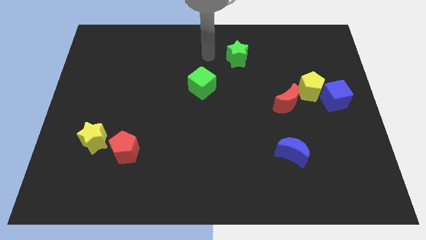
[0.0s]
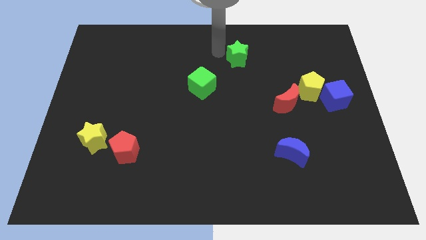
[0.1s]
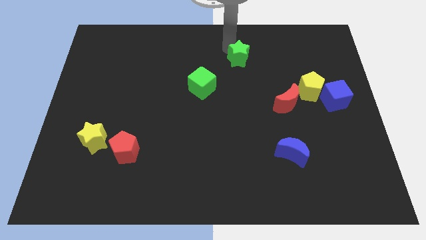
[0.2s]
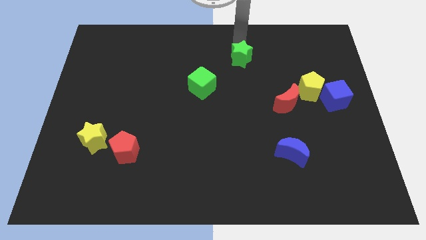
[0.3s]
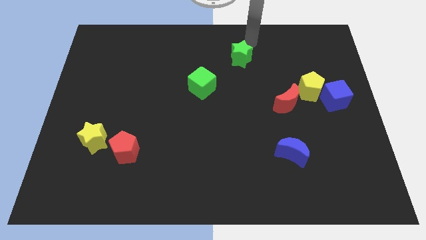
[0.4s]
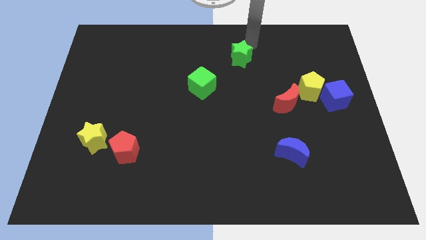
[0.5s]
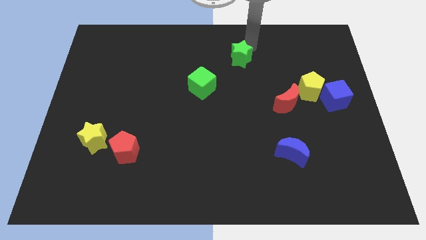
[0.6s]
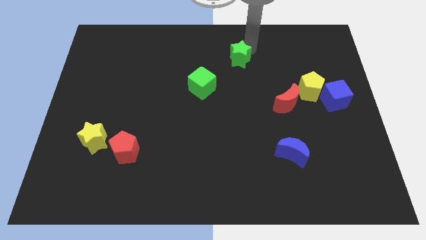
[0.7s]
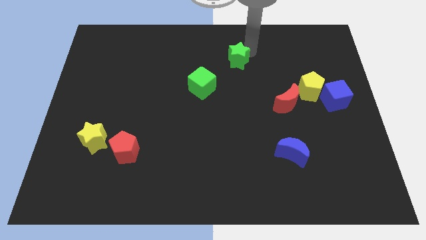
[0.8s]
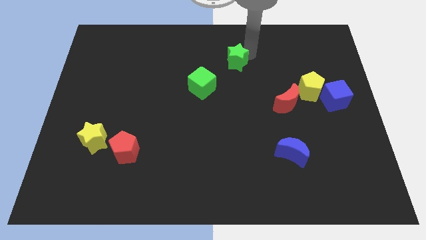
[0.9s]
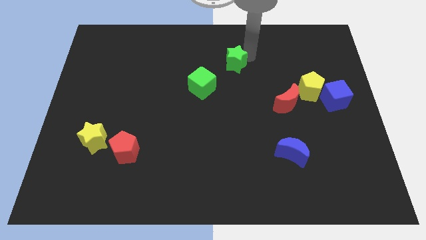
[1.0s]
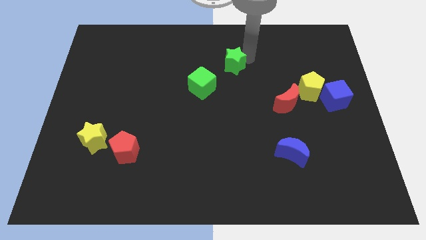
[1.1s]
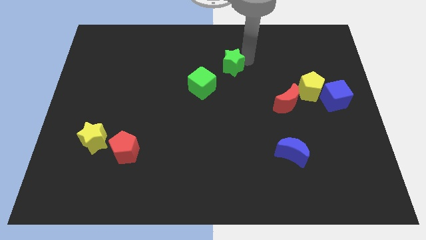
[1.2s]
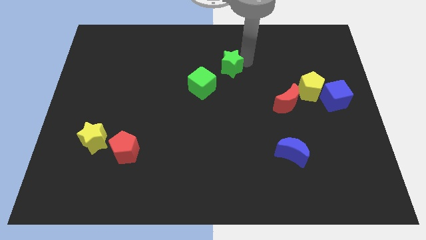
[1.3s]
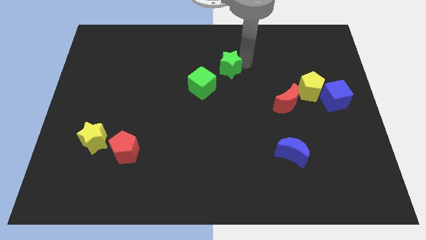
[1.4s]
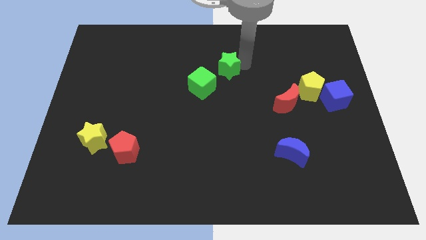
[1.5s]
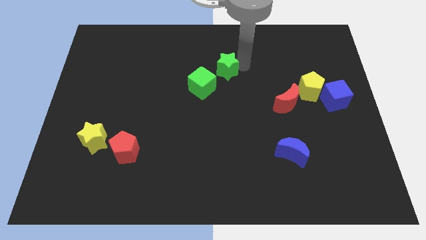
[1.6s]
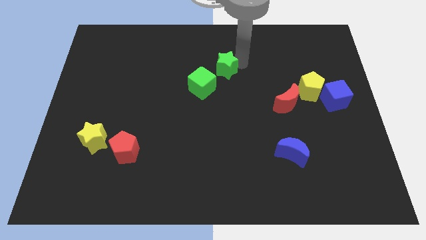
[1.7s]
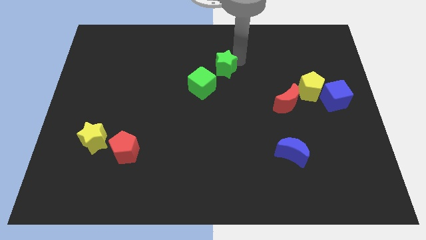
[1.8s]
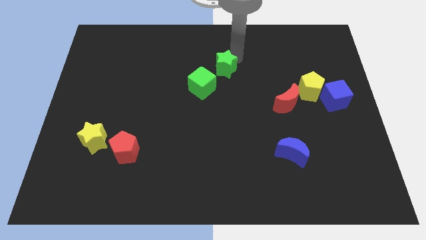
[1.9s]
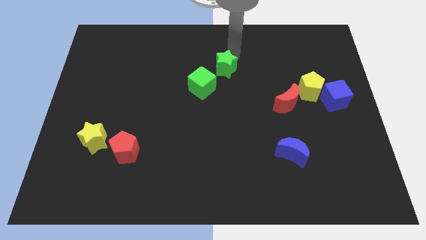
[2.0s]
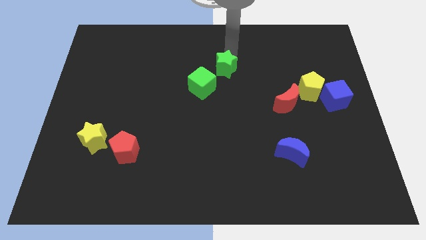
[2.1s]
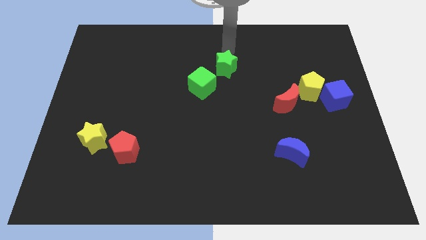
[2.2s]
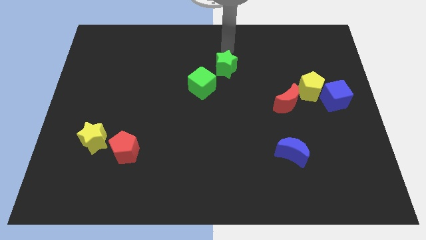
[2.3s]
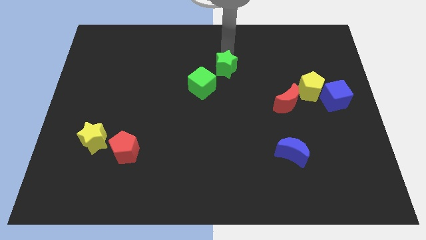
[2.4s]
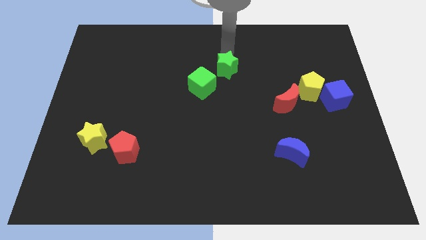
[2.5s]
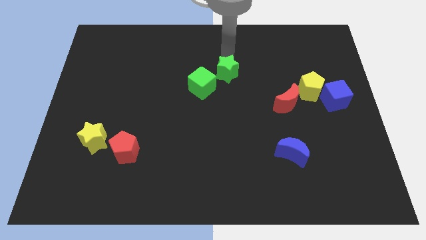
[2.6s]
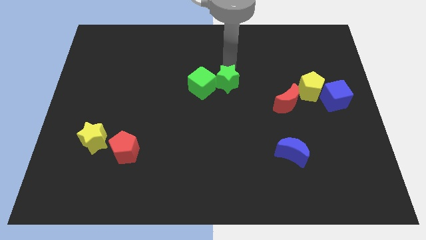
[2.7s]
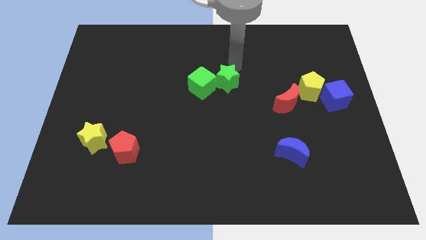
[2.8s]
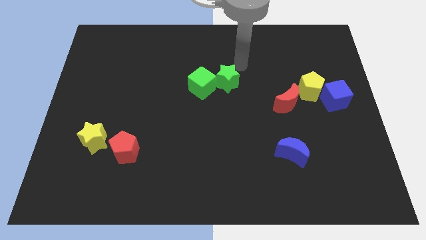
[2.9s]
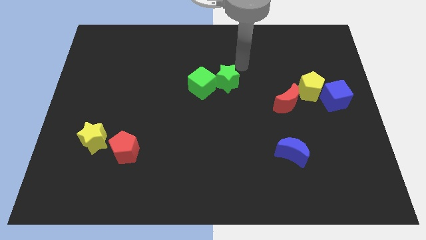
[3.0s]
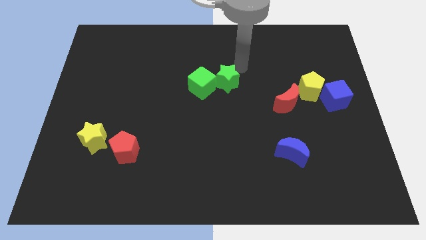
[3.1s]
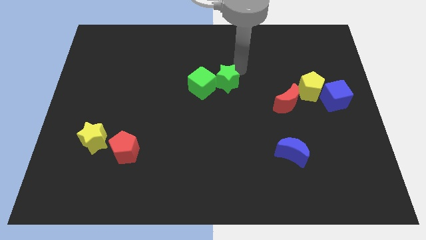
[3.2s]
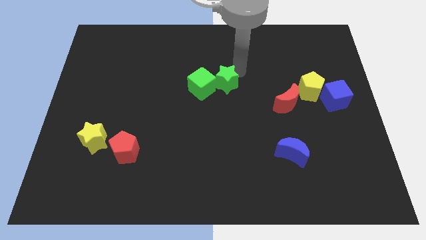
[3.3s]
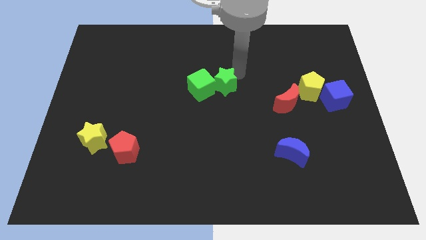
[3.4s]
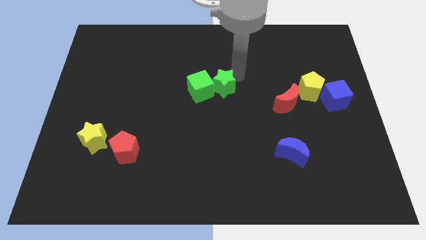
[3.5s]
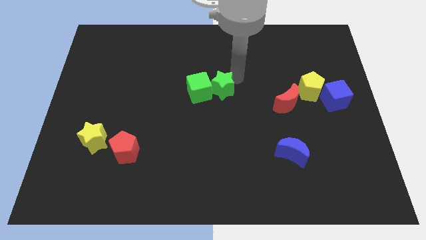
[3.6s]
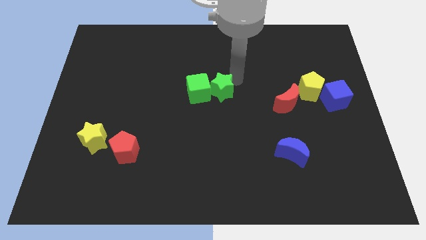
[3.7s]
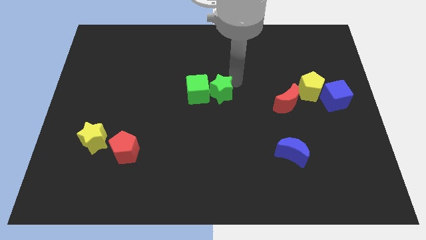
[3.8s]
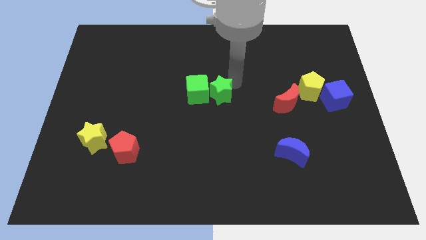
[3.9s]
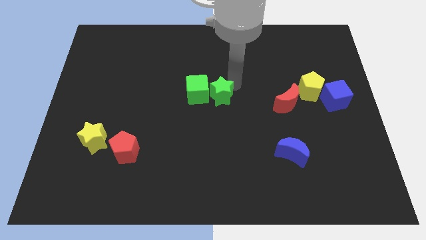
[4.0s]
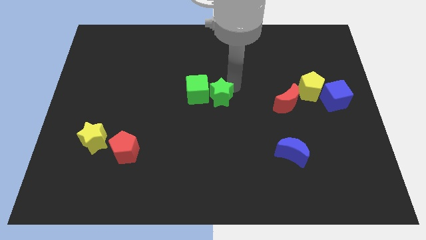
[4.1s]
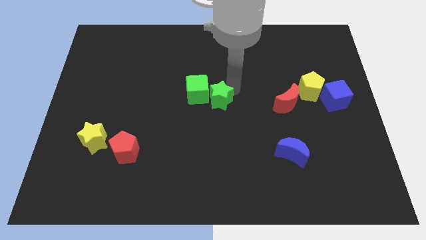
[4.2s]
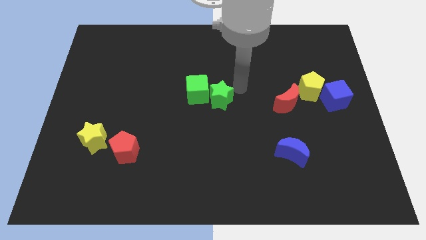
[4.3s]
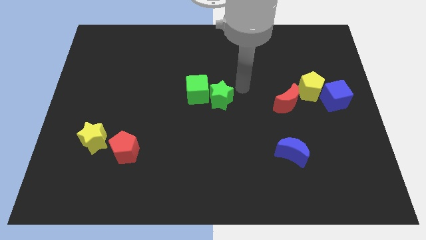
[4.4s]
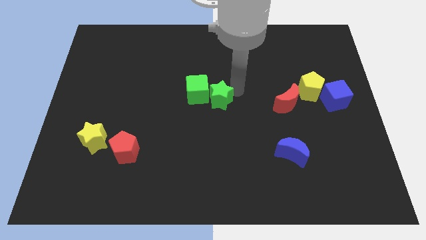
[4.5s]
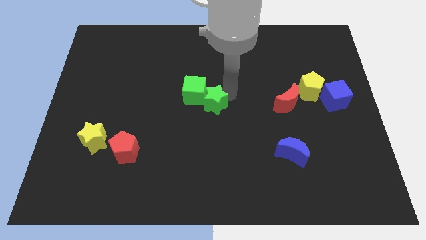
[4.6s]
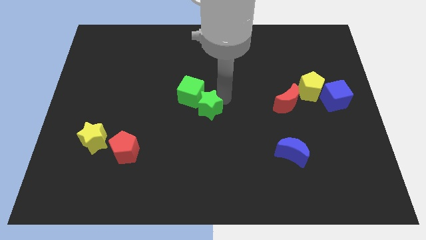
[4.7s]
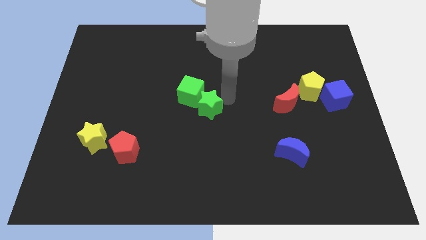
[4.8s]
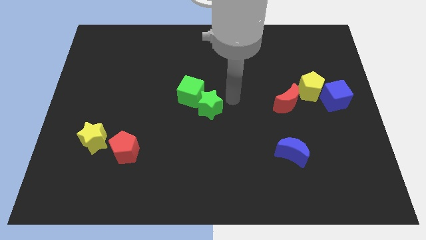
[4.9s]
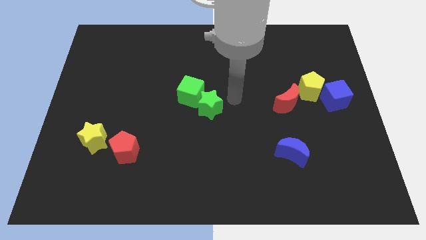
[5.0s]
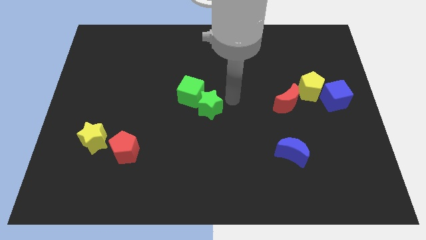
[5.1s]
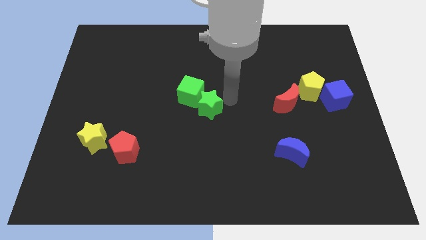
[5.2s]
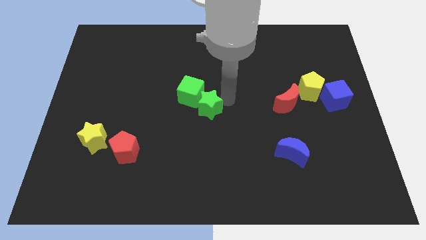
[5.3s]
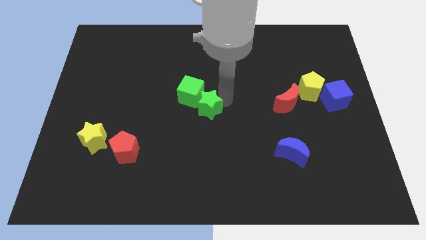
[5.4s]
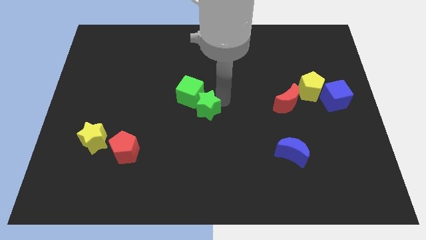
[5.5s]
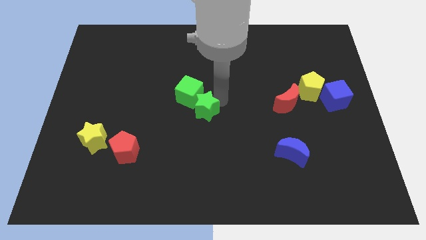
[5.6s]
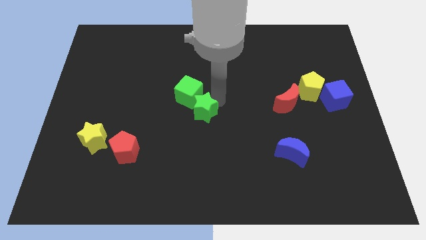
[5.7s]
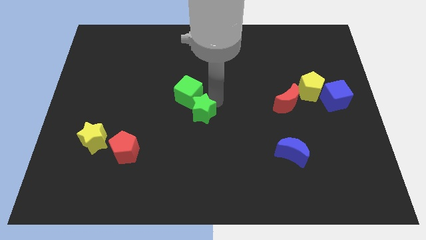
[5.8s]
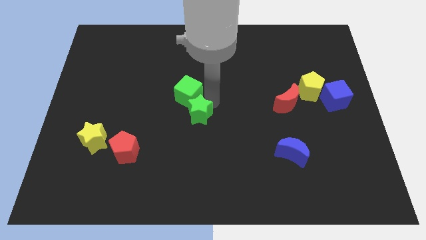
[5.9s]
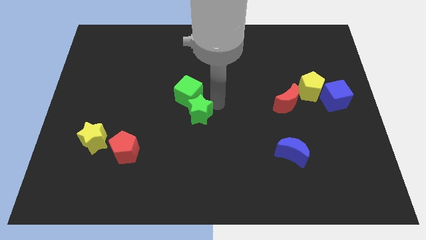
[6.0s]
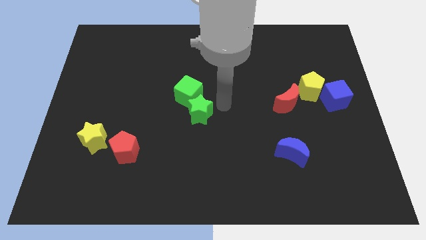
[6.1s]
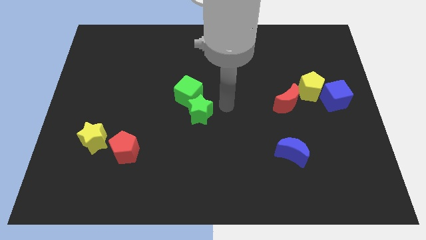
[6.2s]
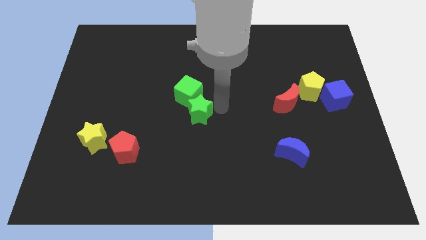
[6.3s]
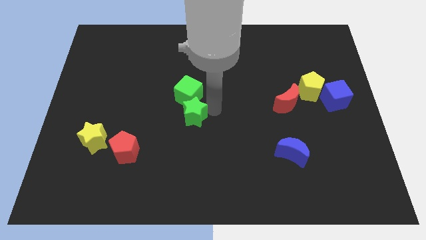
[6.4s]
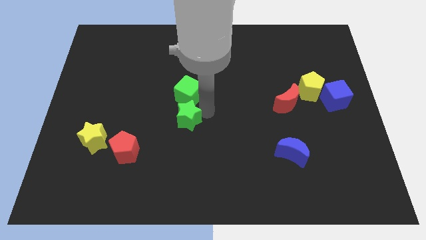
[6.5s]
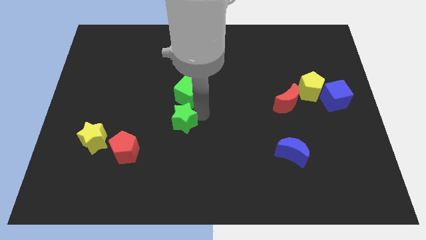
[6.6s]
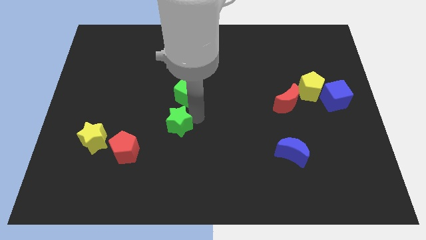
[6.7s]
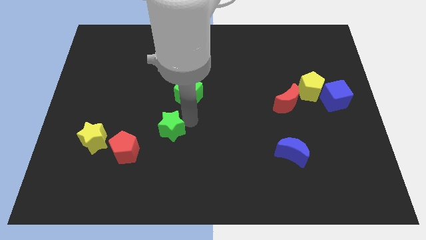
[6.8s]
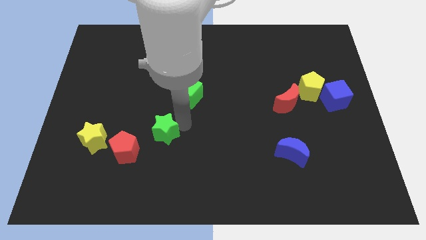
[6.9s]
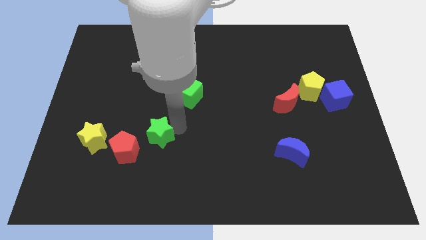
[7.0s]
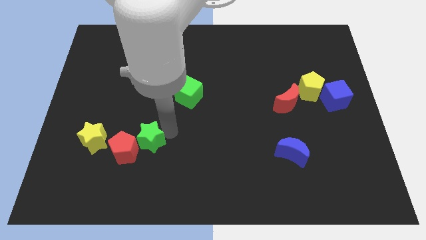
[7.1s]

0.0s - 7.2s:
push the green star towards the red pentagon
